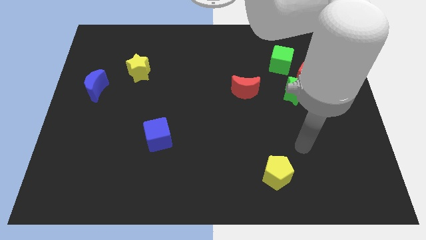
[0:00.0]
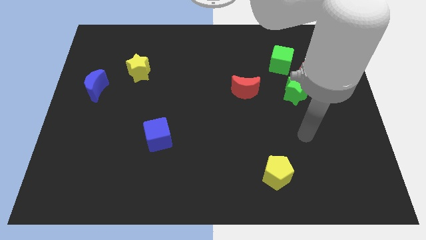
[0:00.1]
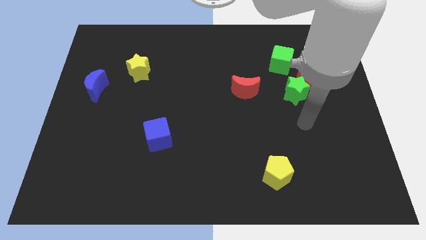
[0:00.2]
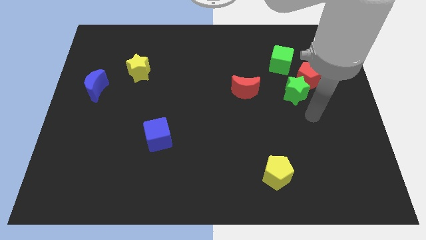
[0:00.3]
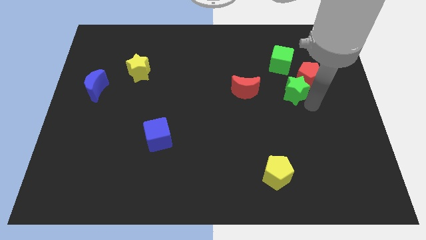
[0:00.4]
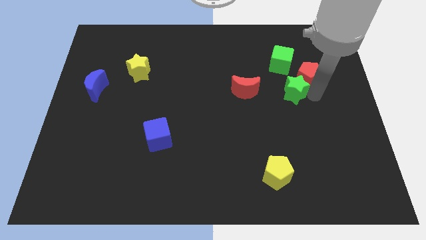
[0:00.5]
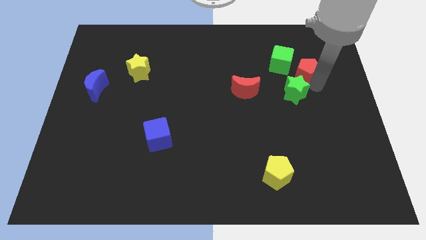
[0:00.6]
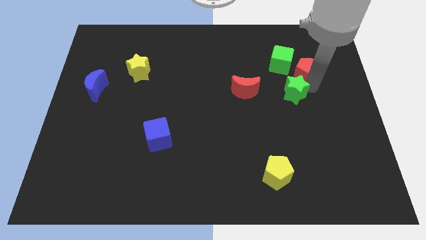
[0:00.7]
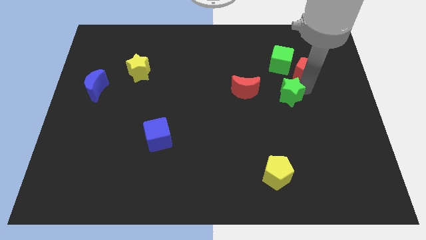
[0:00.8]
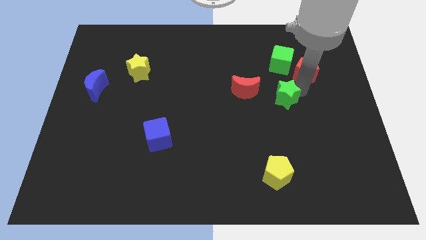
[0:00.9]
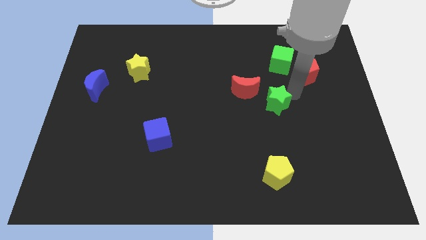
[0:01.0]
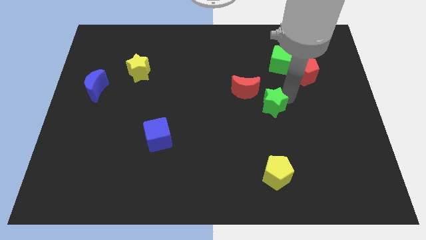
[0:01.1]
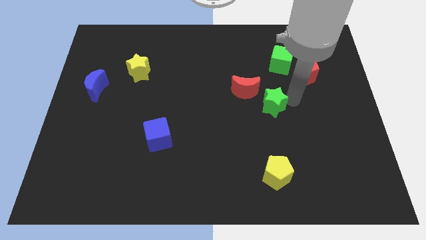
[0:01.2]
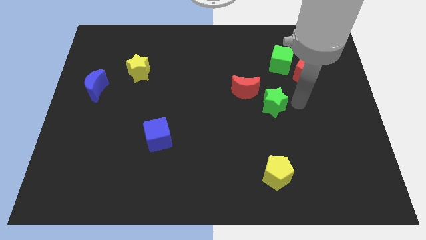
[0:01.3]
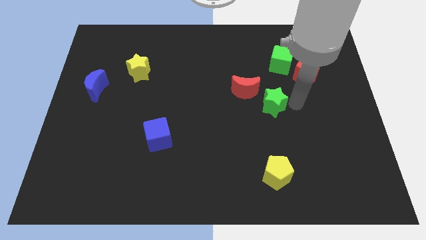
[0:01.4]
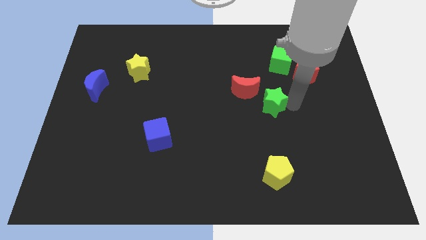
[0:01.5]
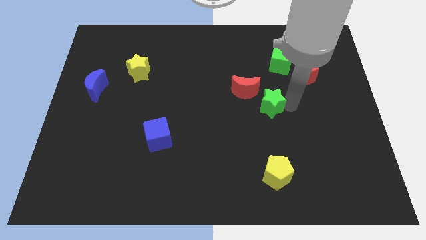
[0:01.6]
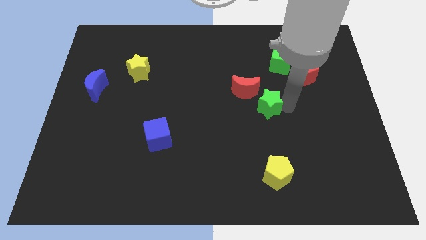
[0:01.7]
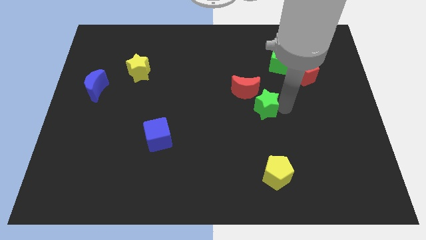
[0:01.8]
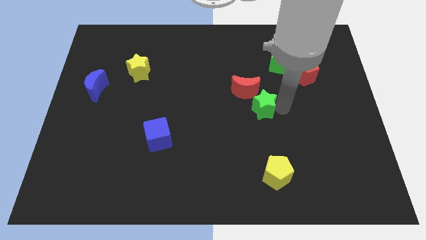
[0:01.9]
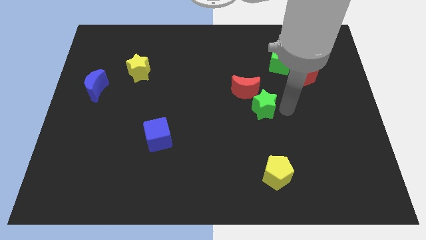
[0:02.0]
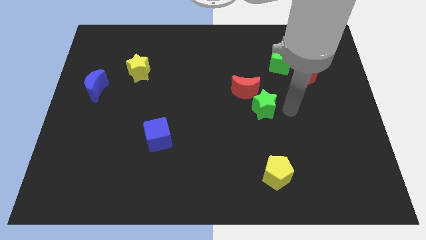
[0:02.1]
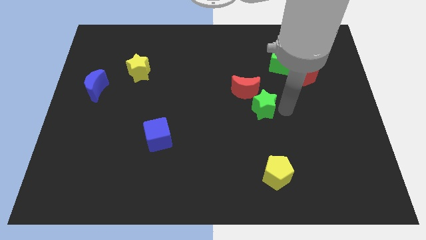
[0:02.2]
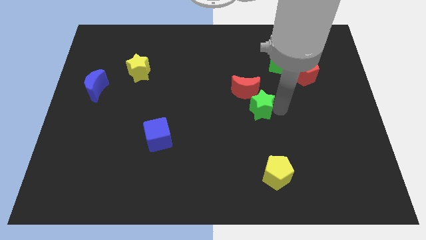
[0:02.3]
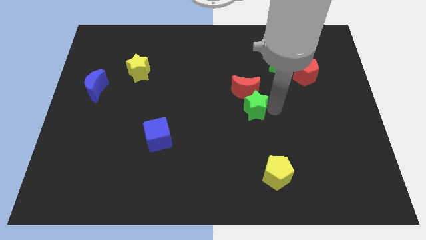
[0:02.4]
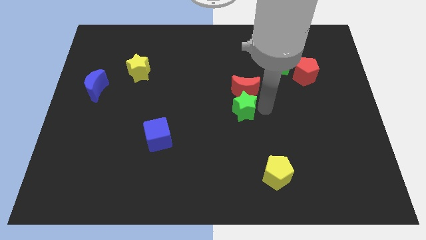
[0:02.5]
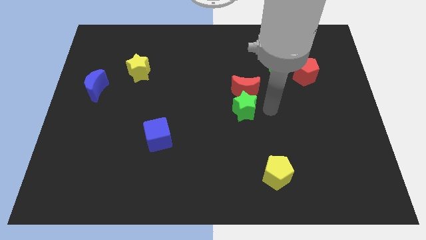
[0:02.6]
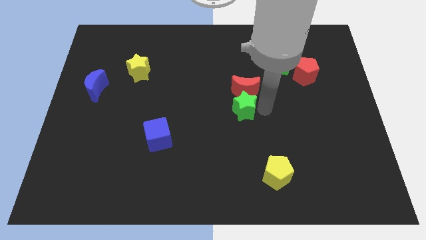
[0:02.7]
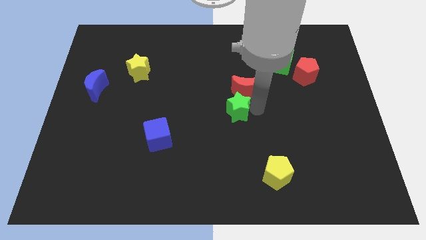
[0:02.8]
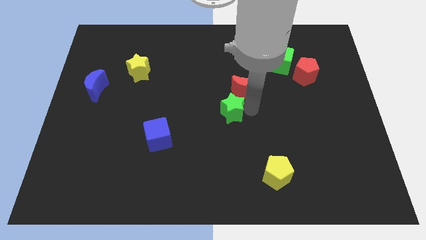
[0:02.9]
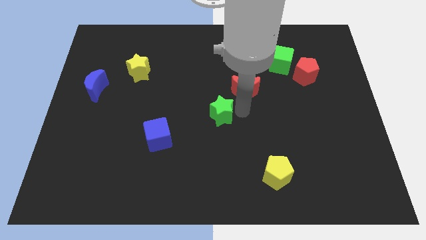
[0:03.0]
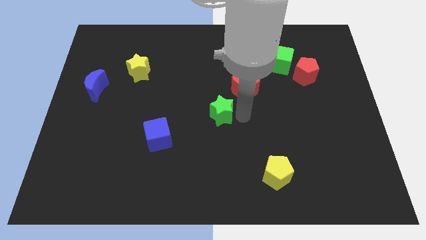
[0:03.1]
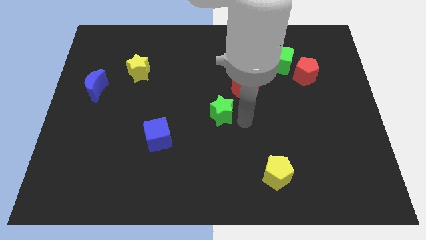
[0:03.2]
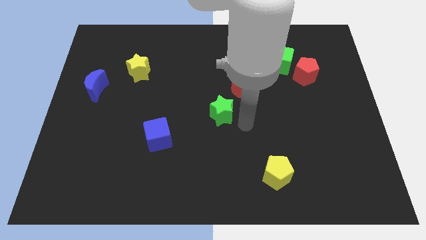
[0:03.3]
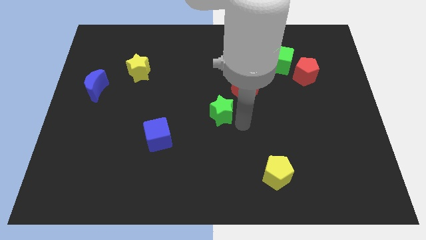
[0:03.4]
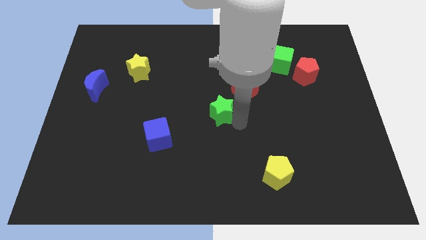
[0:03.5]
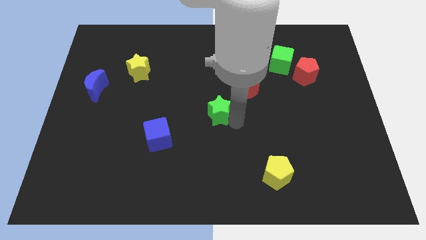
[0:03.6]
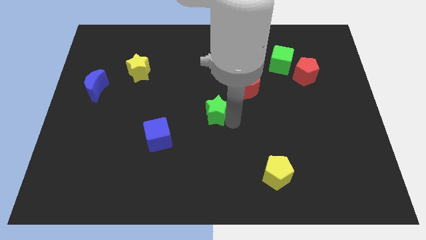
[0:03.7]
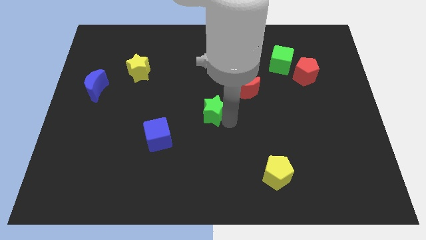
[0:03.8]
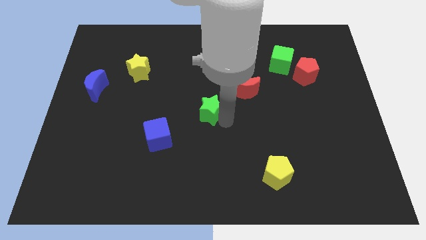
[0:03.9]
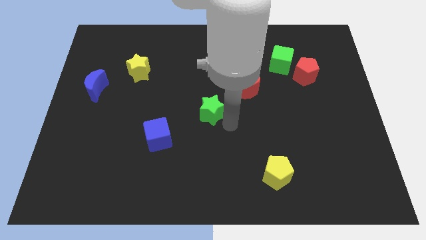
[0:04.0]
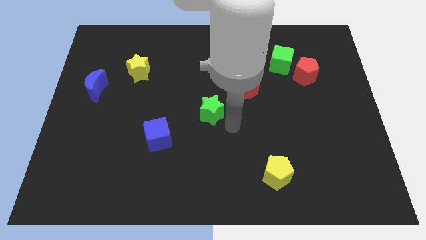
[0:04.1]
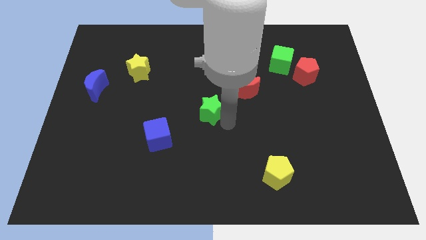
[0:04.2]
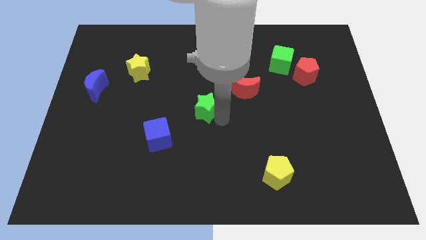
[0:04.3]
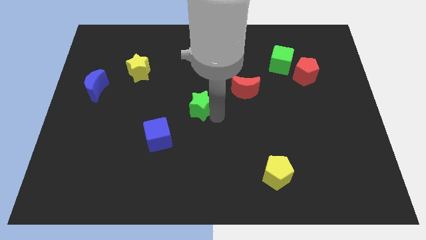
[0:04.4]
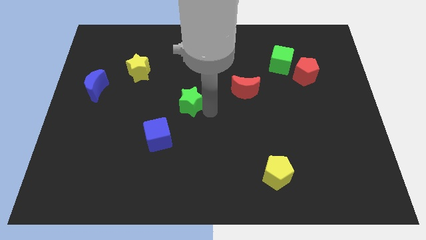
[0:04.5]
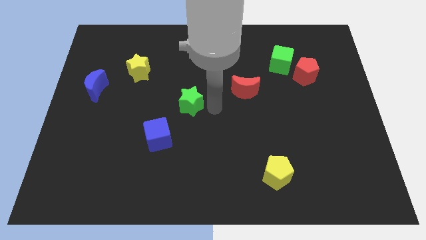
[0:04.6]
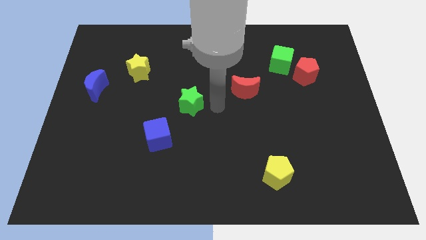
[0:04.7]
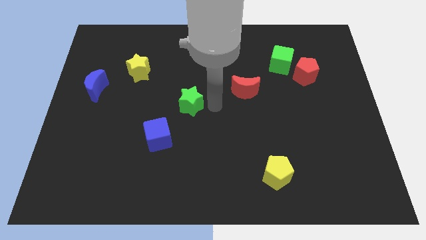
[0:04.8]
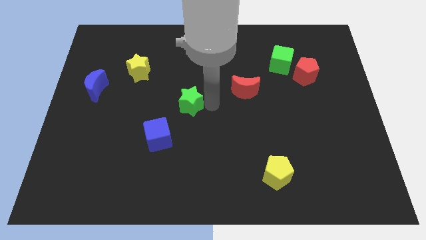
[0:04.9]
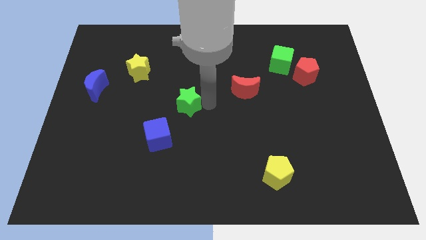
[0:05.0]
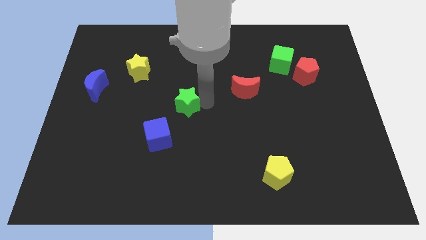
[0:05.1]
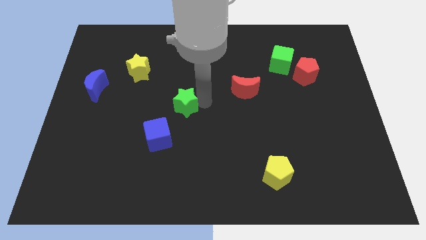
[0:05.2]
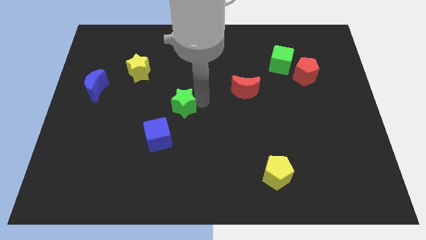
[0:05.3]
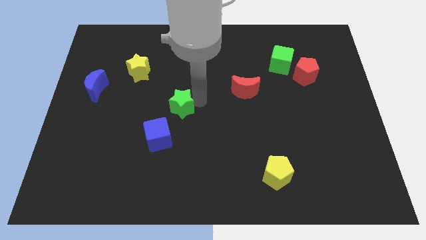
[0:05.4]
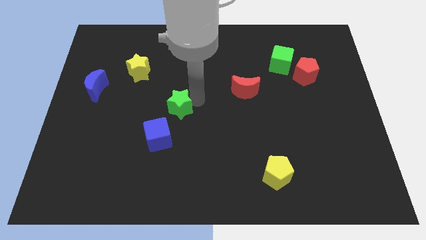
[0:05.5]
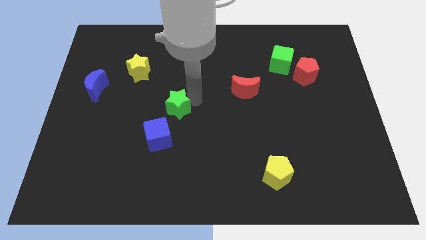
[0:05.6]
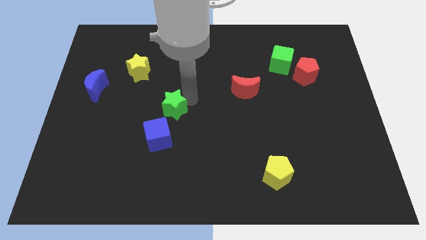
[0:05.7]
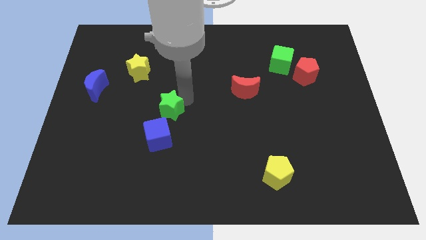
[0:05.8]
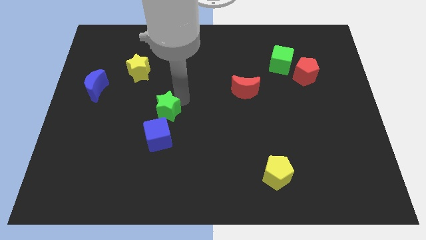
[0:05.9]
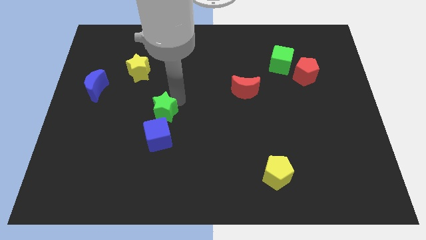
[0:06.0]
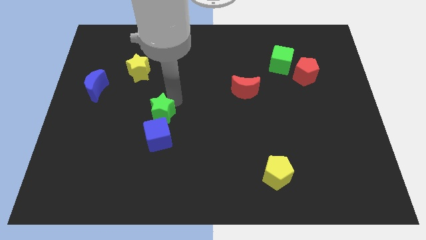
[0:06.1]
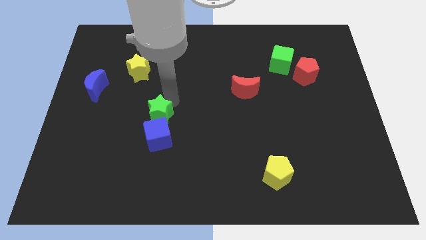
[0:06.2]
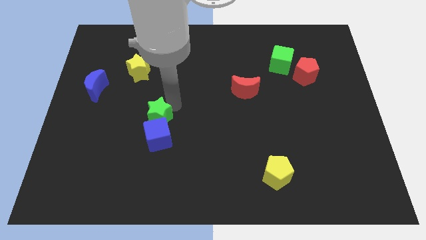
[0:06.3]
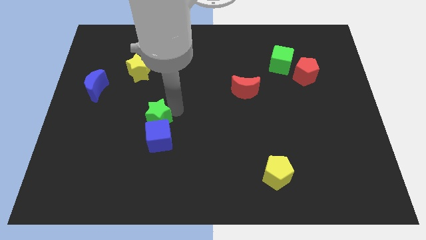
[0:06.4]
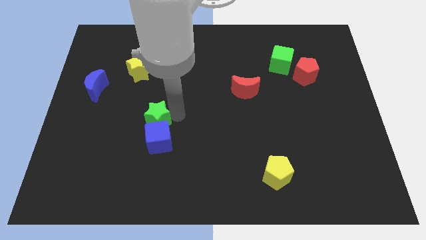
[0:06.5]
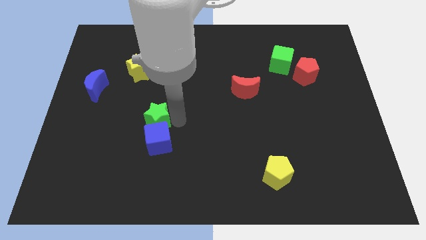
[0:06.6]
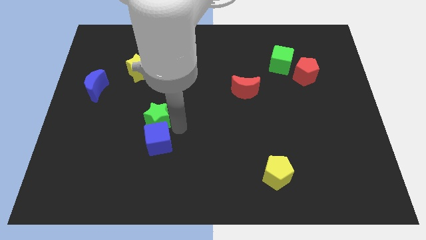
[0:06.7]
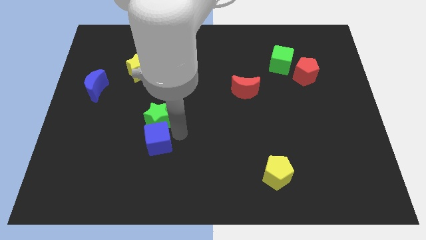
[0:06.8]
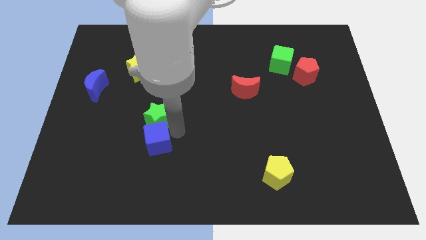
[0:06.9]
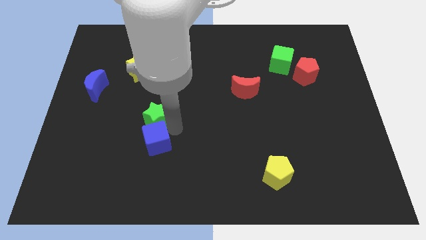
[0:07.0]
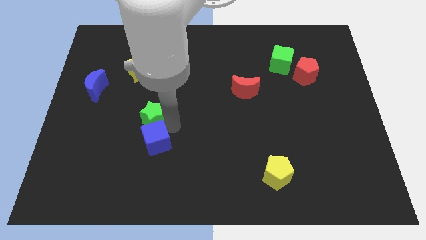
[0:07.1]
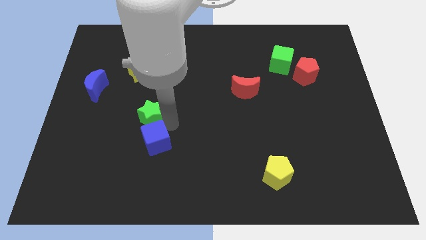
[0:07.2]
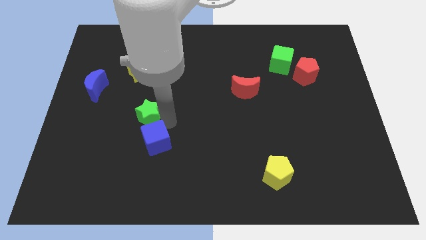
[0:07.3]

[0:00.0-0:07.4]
push the green star to the bottom of the yellow star
